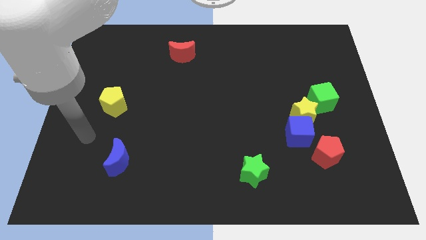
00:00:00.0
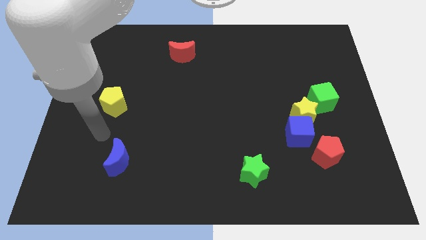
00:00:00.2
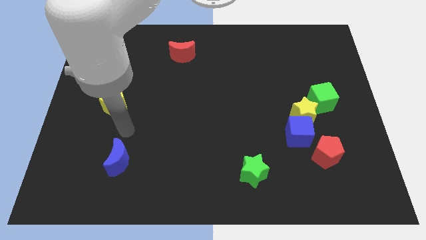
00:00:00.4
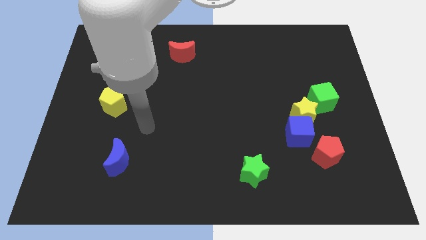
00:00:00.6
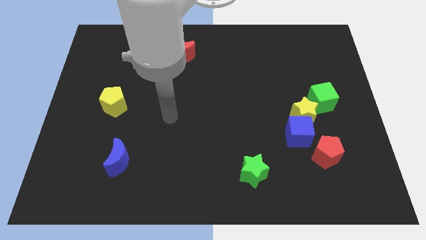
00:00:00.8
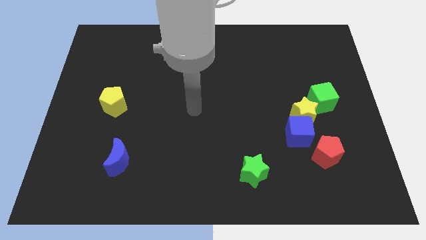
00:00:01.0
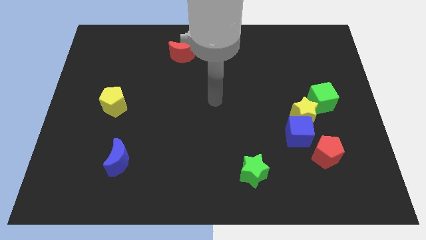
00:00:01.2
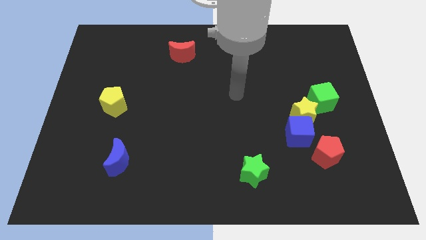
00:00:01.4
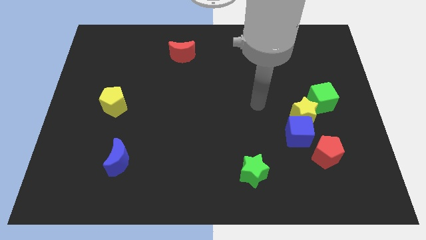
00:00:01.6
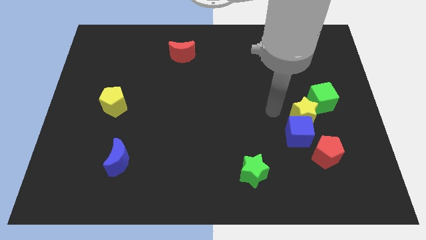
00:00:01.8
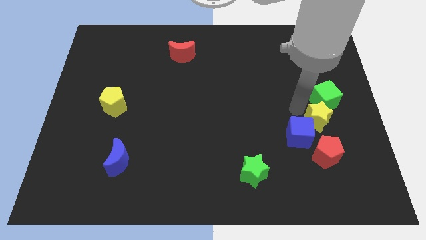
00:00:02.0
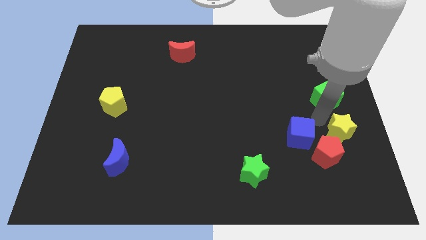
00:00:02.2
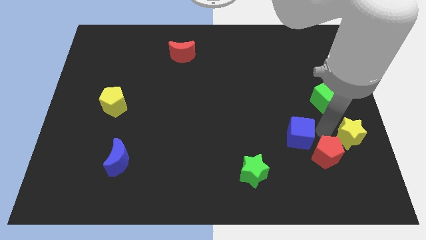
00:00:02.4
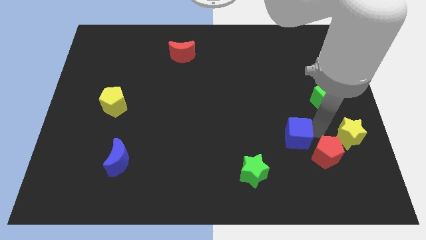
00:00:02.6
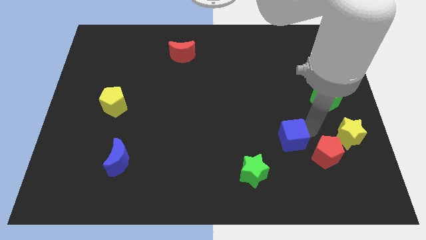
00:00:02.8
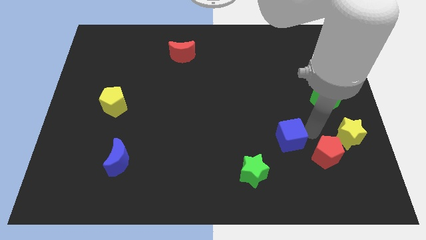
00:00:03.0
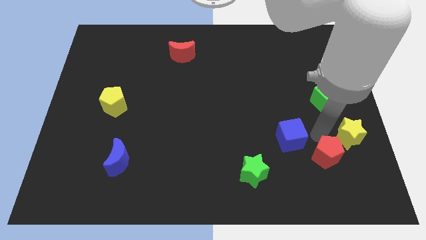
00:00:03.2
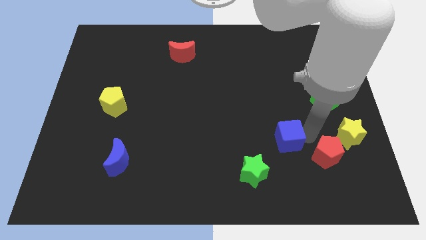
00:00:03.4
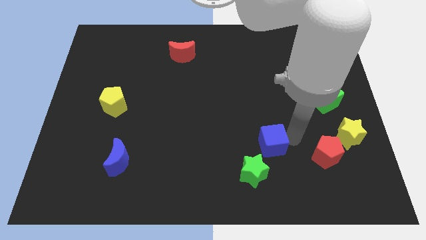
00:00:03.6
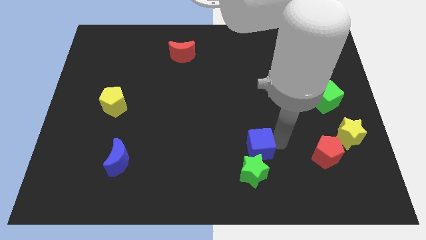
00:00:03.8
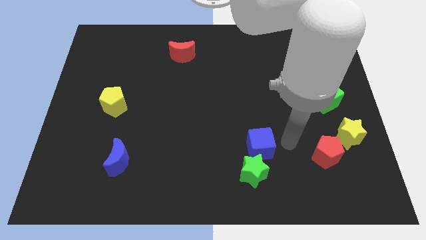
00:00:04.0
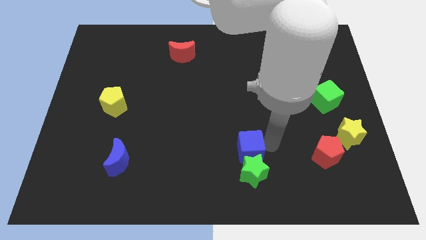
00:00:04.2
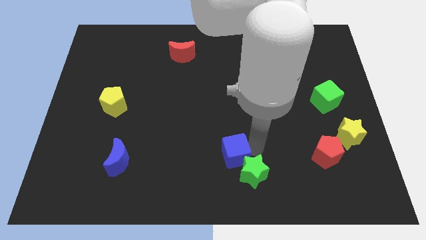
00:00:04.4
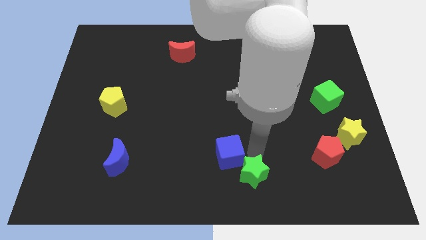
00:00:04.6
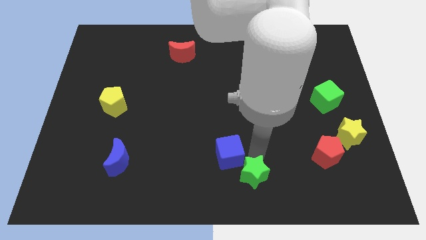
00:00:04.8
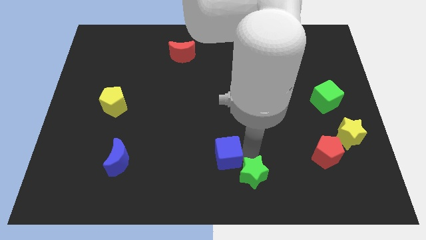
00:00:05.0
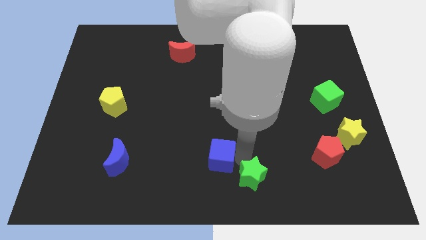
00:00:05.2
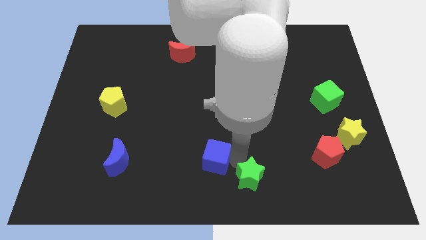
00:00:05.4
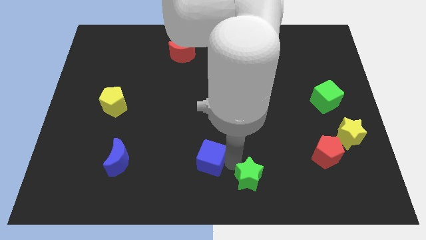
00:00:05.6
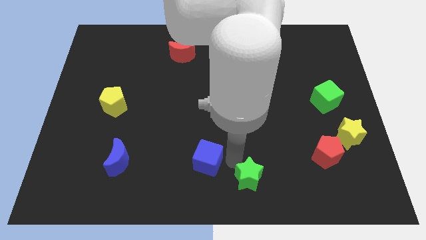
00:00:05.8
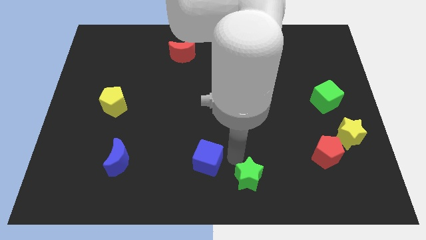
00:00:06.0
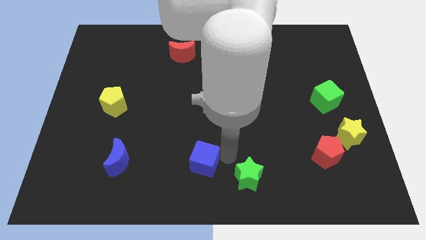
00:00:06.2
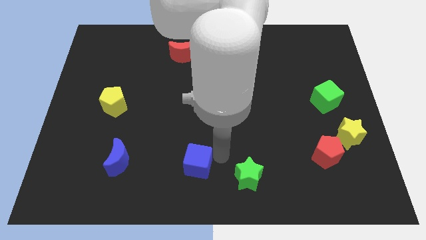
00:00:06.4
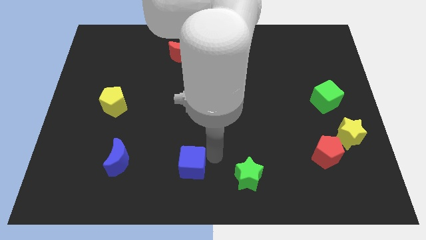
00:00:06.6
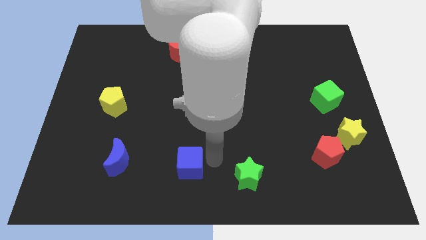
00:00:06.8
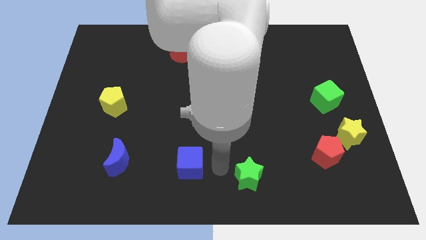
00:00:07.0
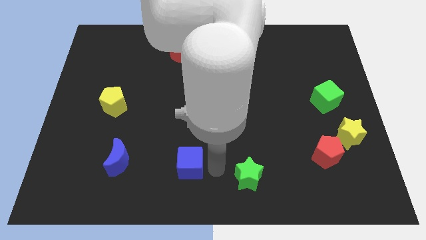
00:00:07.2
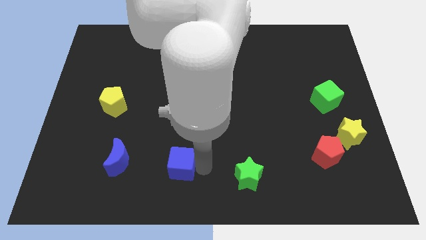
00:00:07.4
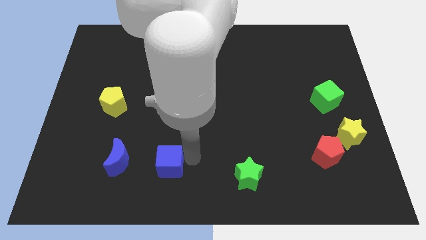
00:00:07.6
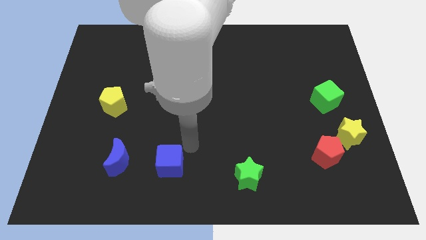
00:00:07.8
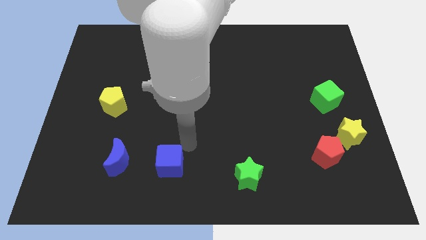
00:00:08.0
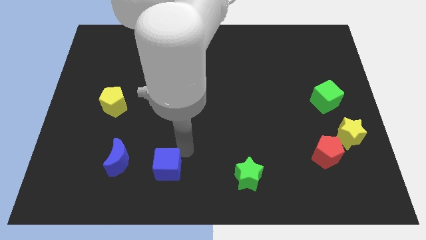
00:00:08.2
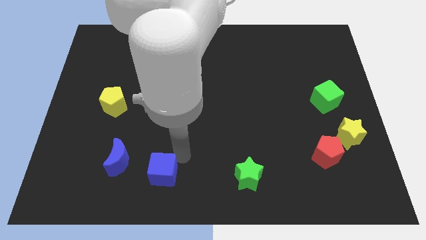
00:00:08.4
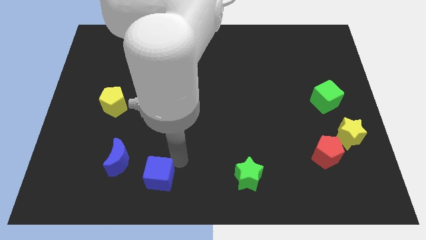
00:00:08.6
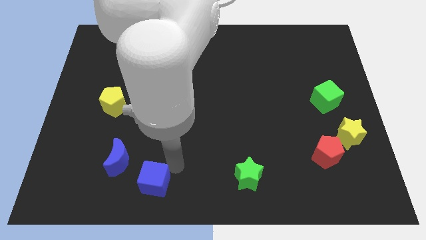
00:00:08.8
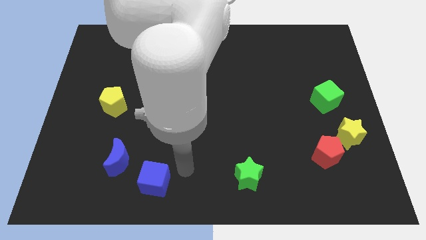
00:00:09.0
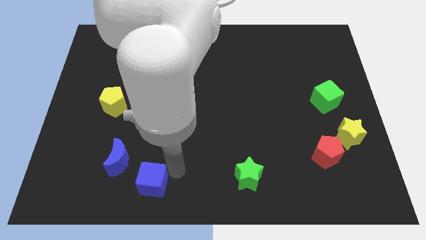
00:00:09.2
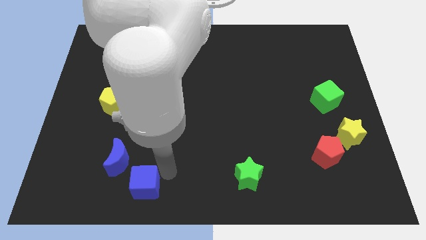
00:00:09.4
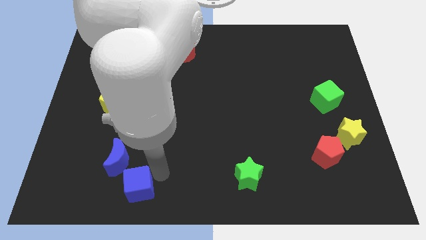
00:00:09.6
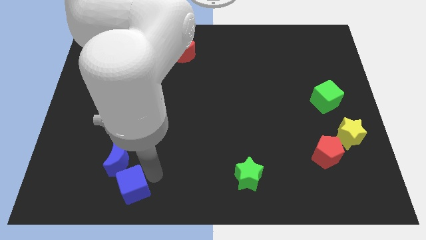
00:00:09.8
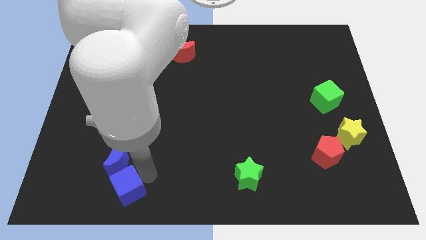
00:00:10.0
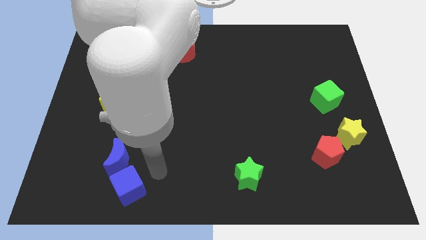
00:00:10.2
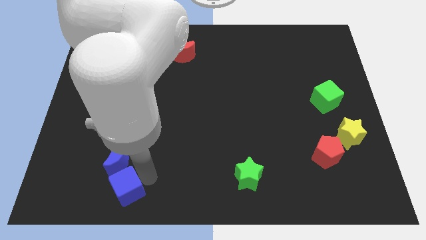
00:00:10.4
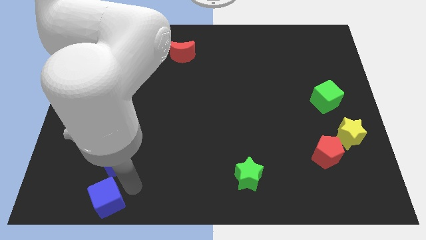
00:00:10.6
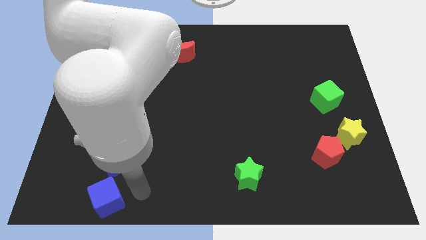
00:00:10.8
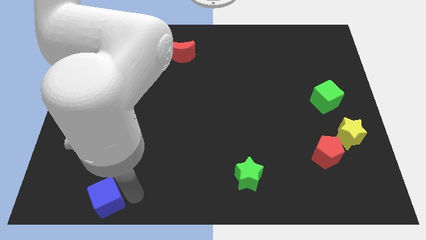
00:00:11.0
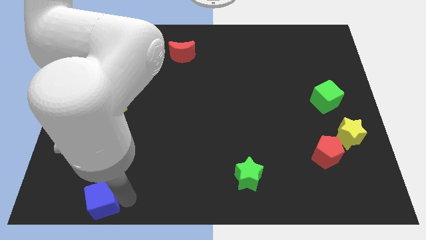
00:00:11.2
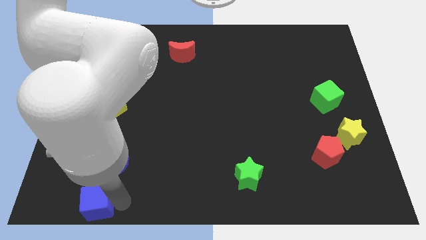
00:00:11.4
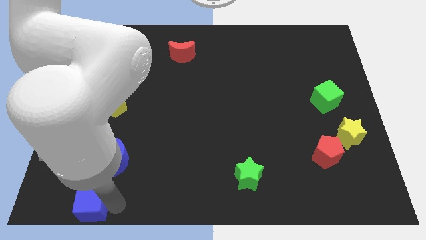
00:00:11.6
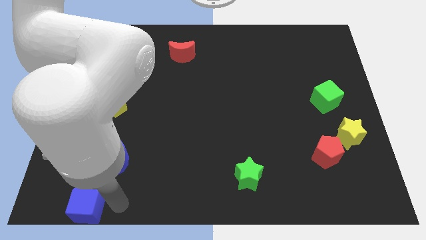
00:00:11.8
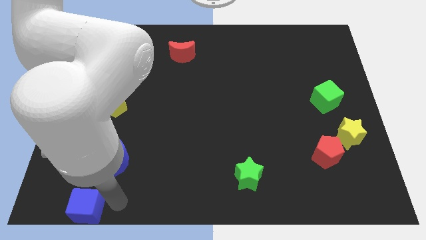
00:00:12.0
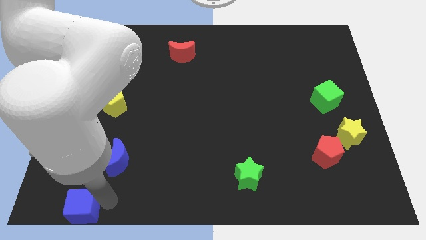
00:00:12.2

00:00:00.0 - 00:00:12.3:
put the blue cube to the bottom left corner
